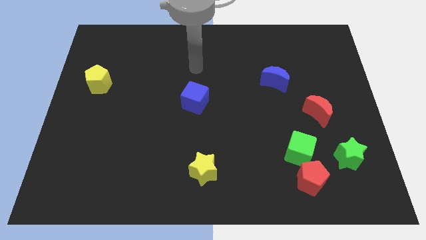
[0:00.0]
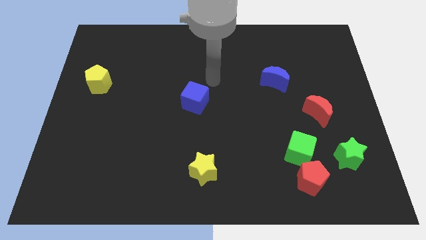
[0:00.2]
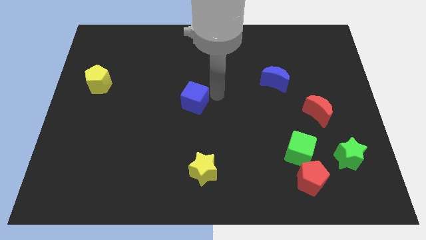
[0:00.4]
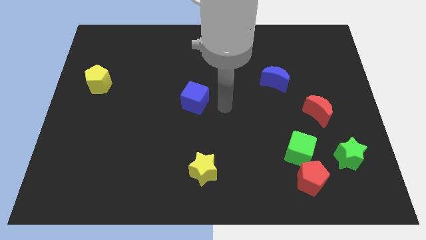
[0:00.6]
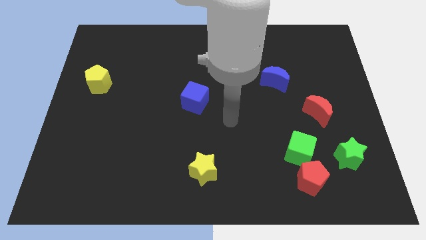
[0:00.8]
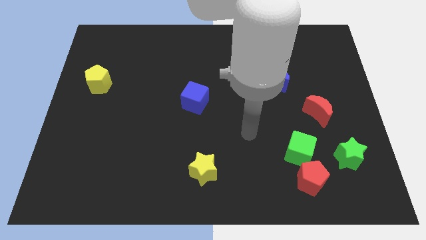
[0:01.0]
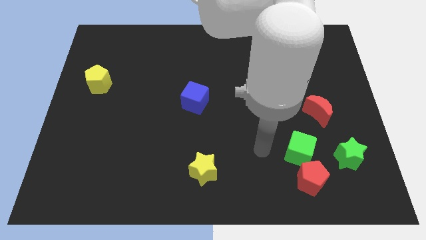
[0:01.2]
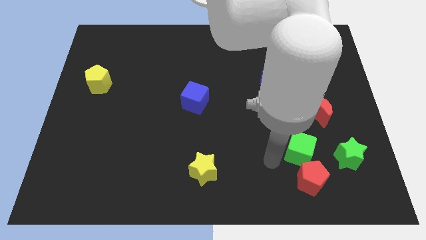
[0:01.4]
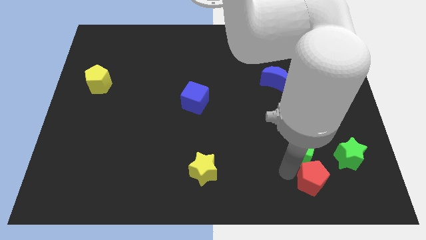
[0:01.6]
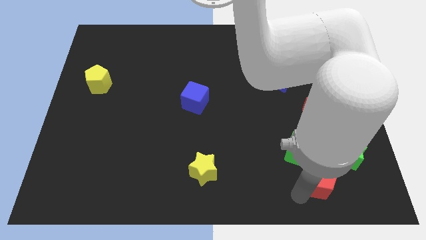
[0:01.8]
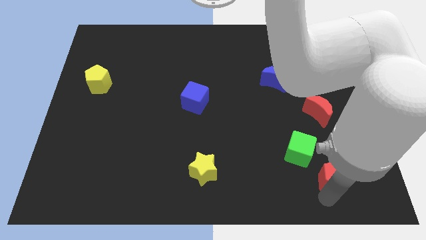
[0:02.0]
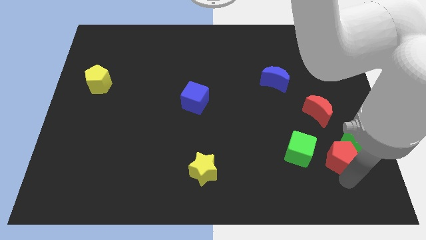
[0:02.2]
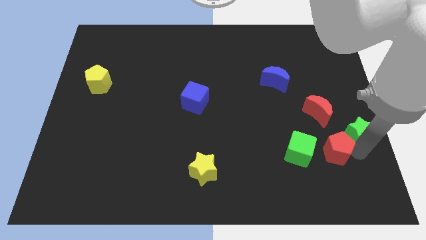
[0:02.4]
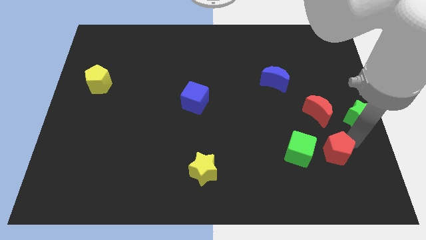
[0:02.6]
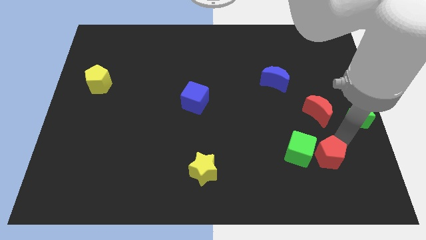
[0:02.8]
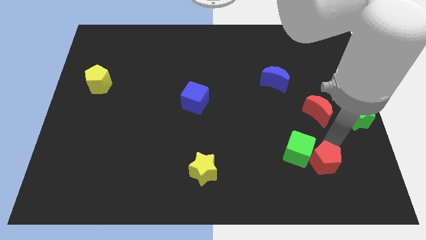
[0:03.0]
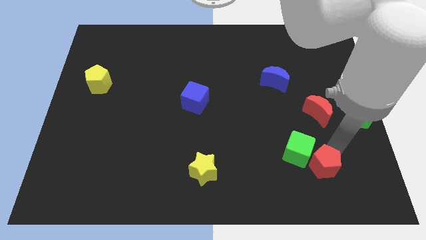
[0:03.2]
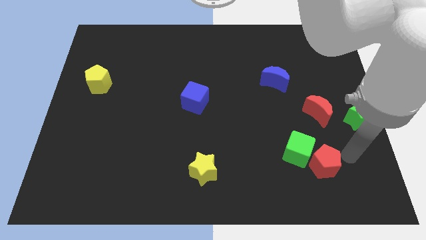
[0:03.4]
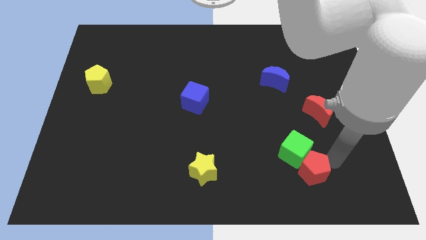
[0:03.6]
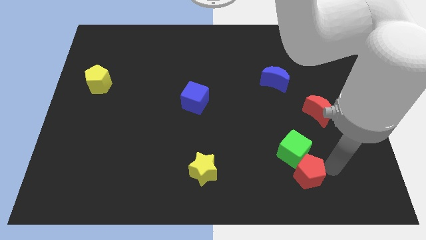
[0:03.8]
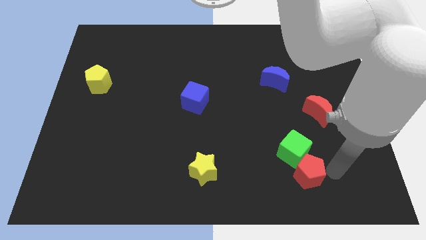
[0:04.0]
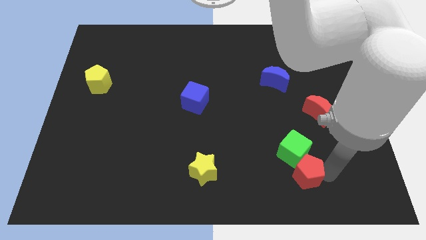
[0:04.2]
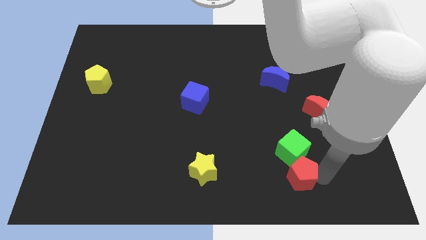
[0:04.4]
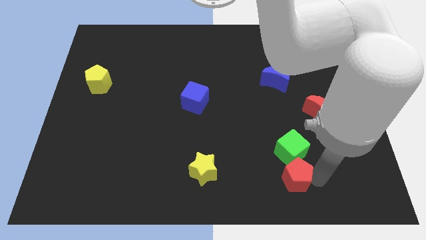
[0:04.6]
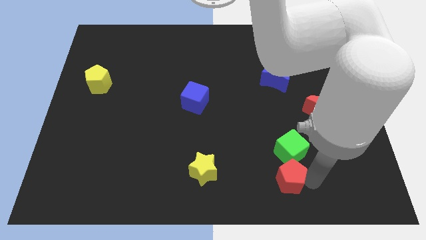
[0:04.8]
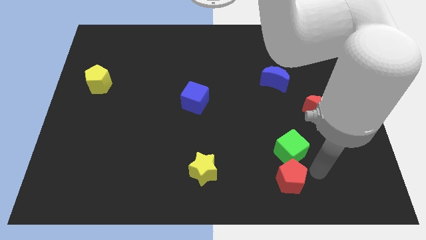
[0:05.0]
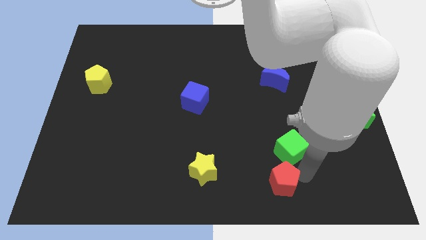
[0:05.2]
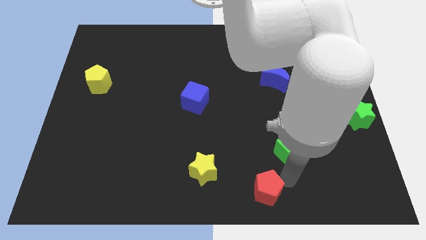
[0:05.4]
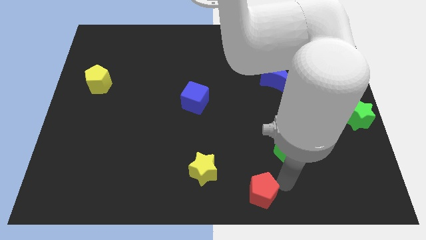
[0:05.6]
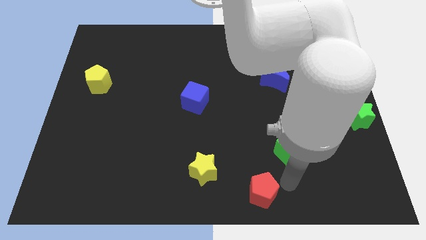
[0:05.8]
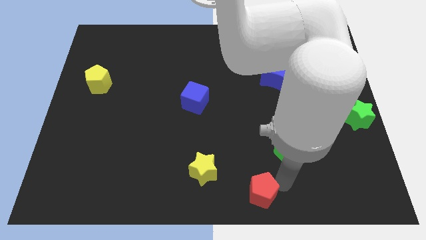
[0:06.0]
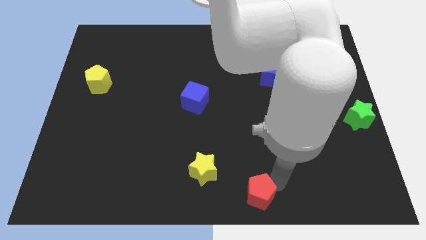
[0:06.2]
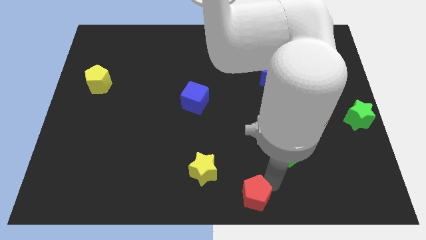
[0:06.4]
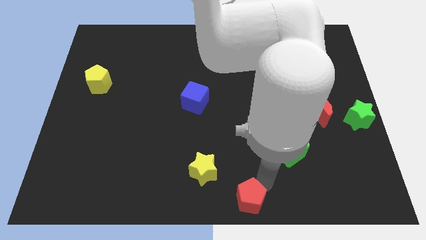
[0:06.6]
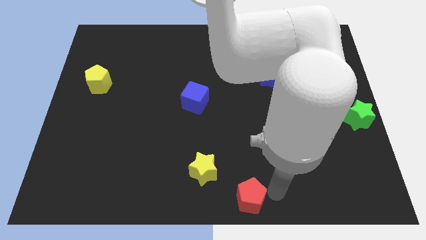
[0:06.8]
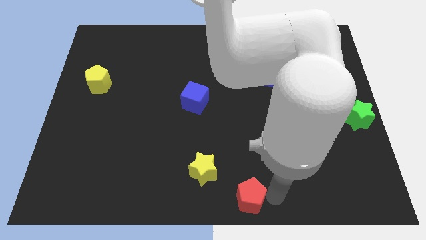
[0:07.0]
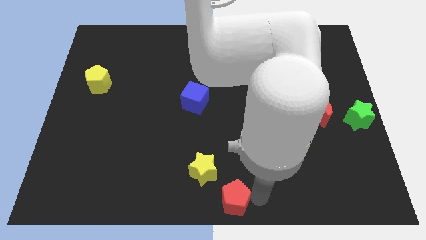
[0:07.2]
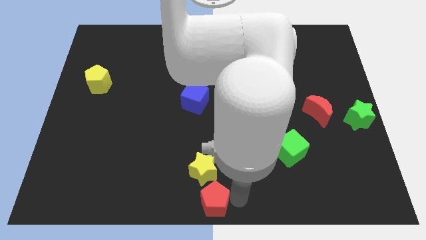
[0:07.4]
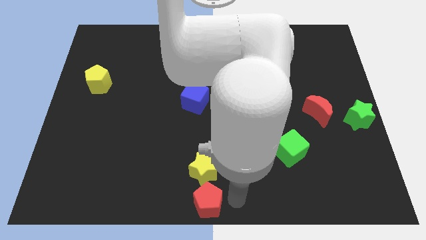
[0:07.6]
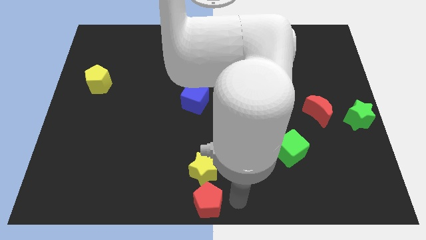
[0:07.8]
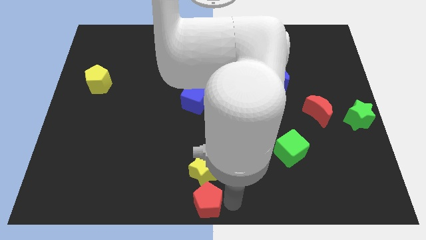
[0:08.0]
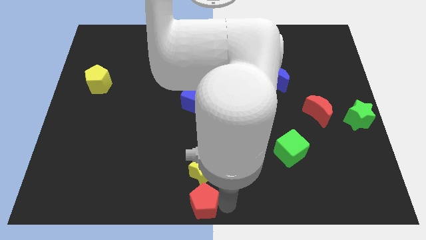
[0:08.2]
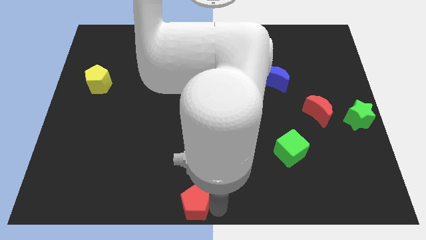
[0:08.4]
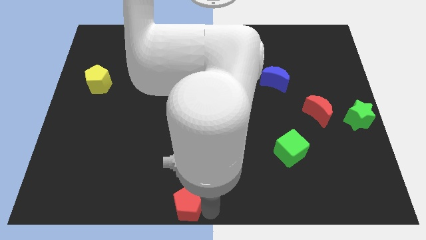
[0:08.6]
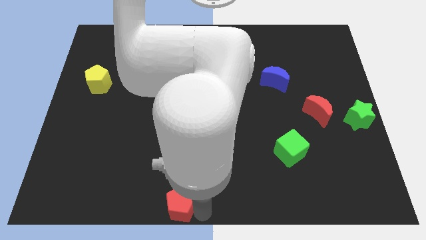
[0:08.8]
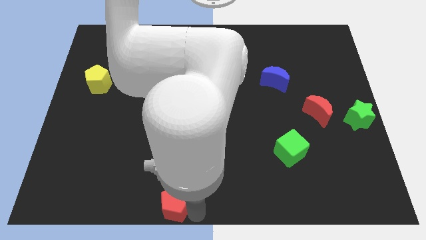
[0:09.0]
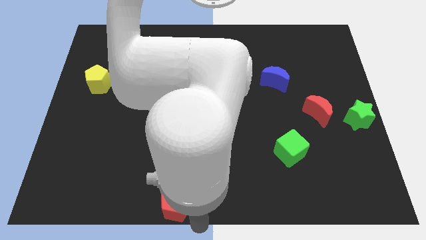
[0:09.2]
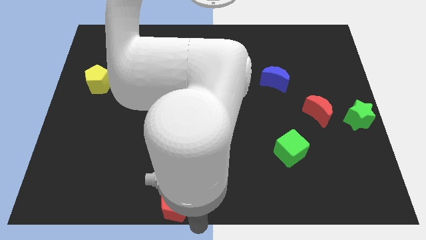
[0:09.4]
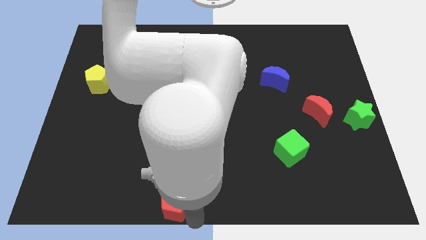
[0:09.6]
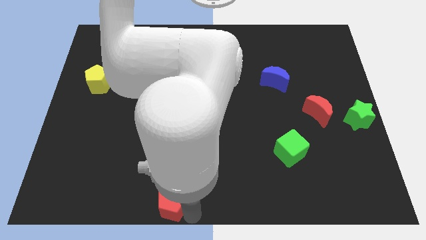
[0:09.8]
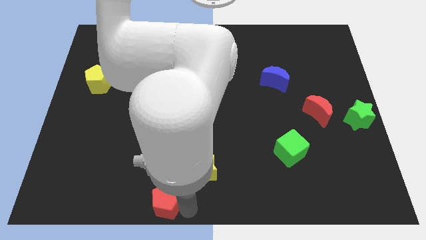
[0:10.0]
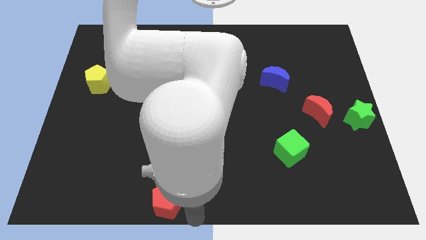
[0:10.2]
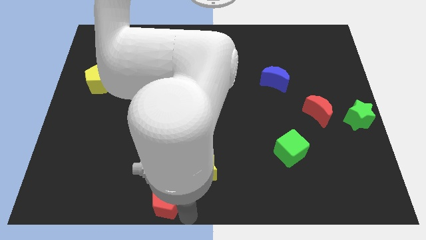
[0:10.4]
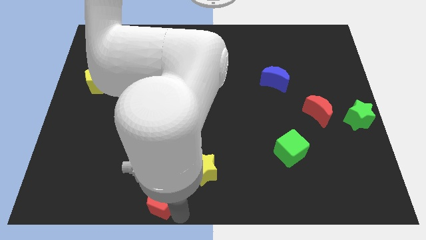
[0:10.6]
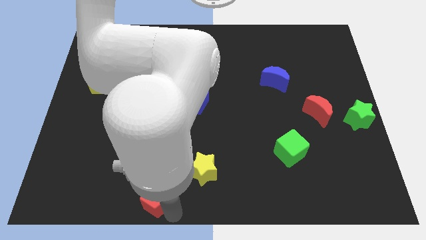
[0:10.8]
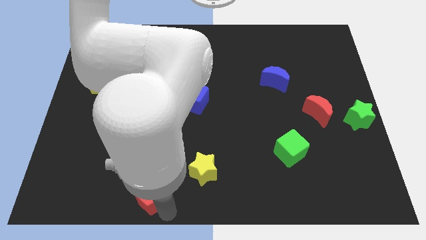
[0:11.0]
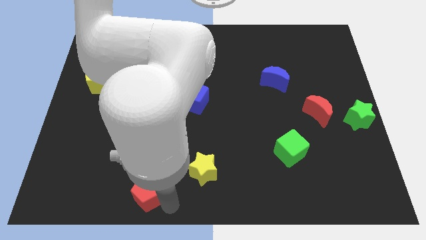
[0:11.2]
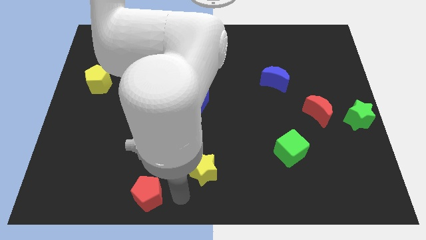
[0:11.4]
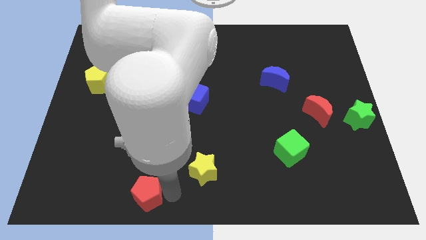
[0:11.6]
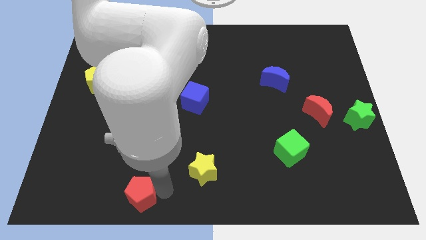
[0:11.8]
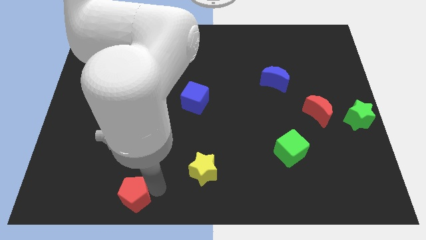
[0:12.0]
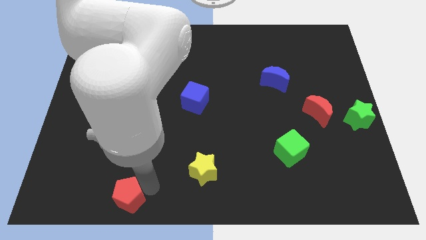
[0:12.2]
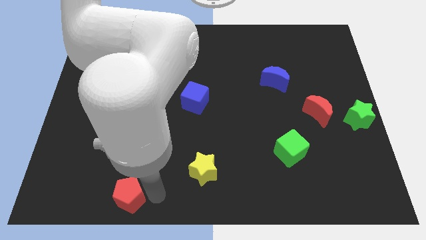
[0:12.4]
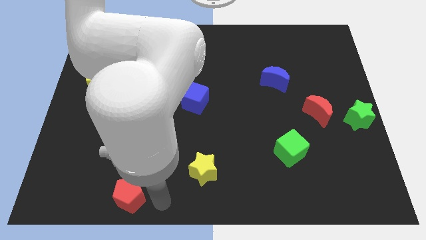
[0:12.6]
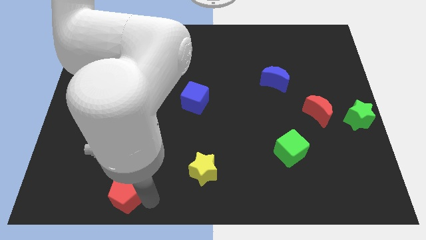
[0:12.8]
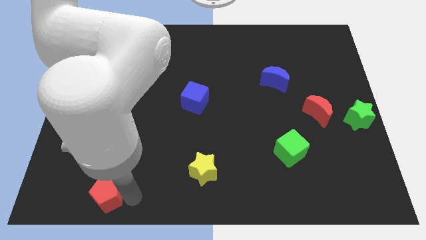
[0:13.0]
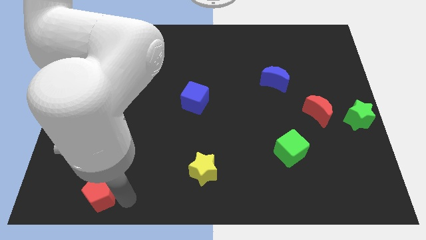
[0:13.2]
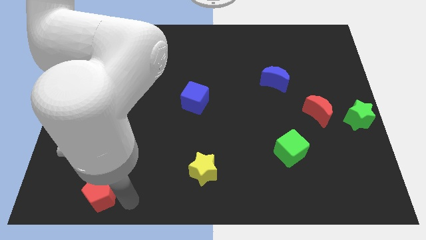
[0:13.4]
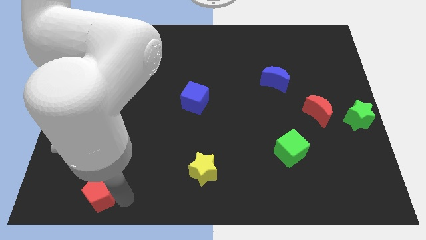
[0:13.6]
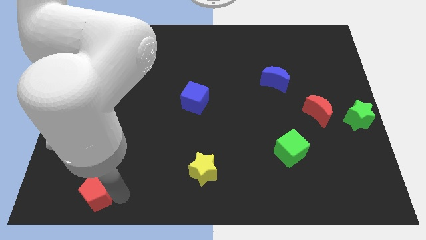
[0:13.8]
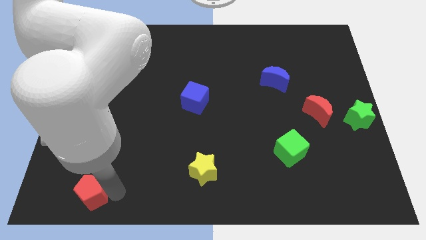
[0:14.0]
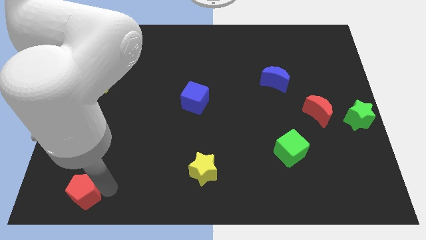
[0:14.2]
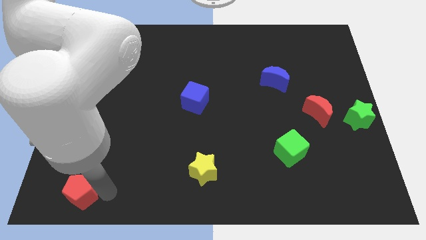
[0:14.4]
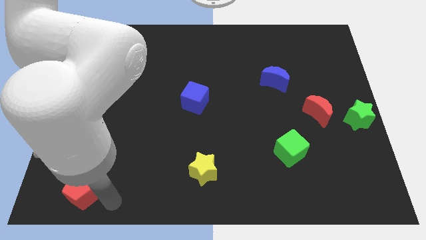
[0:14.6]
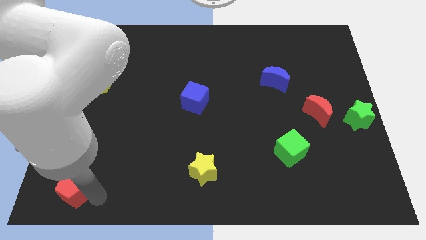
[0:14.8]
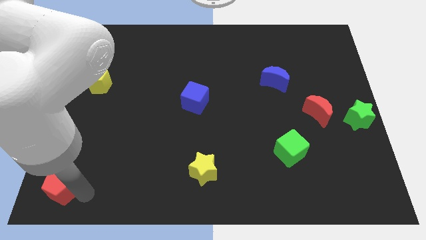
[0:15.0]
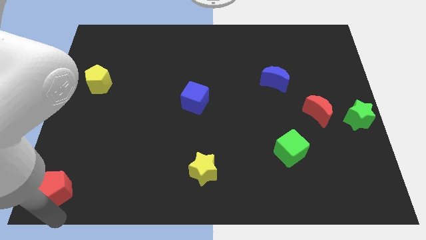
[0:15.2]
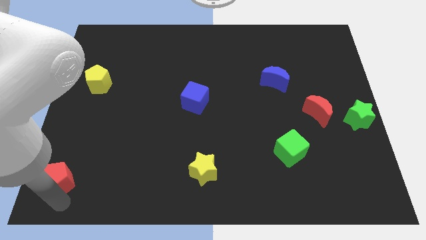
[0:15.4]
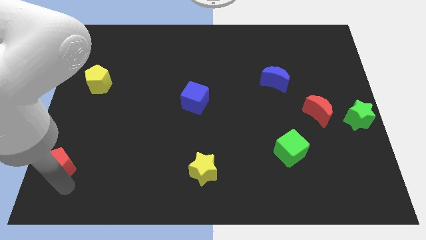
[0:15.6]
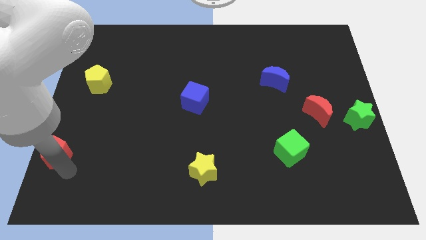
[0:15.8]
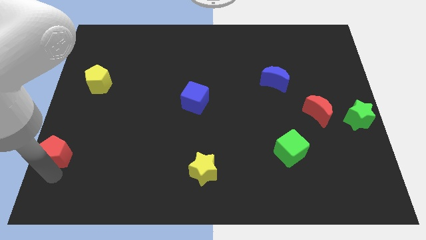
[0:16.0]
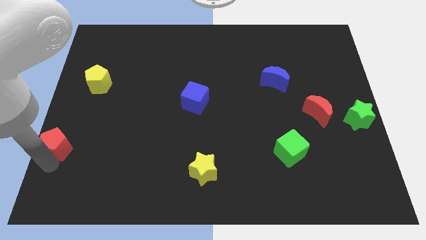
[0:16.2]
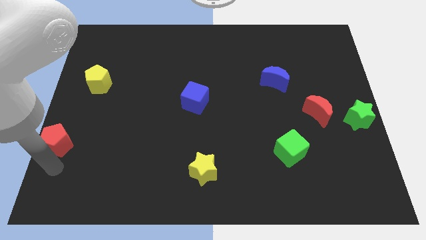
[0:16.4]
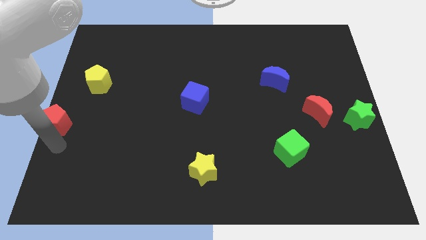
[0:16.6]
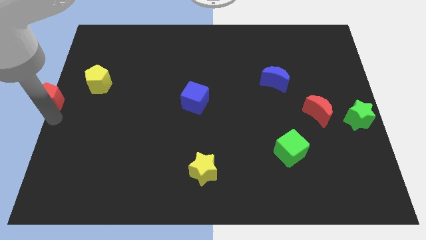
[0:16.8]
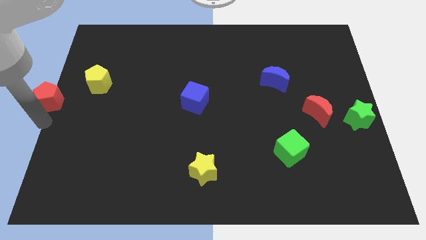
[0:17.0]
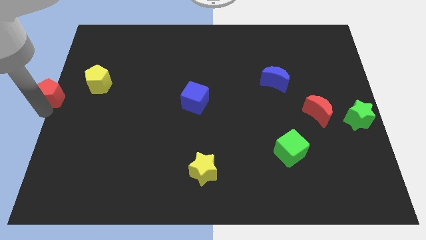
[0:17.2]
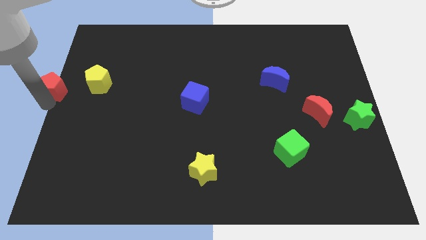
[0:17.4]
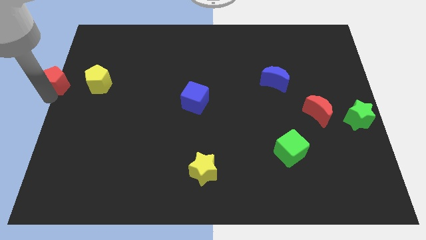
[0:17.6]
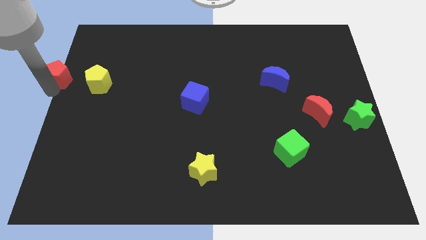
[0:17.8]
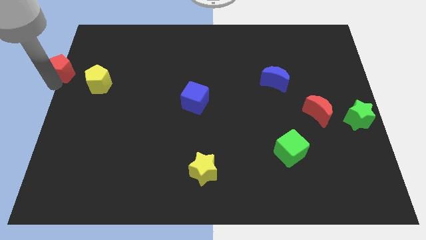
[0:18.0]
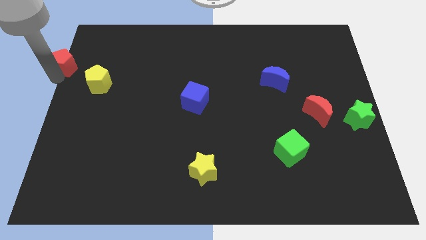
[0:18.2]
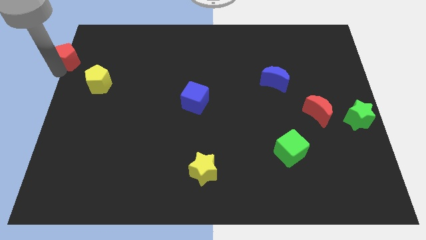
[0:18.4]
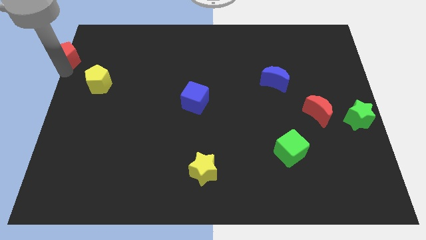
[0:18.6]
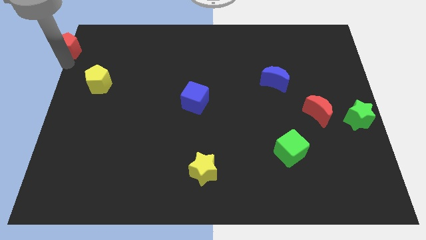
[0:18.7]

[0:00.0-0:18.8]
move the red pentagon to the top left corner
